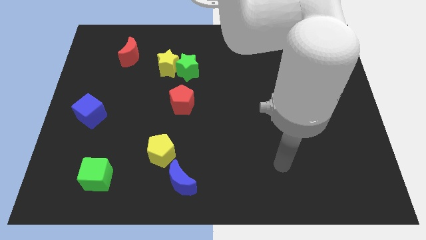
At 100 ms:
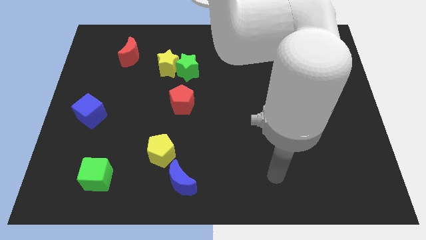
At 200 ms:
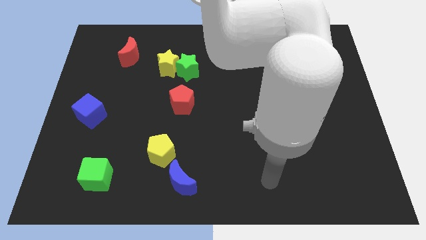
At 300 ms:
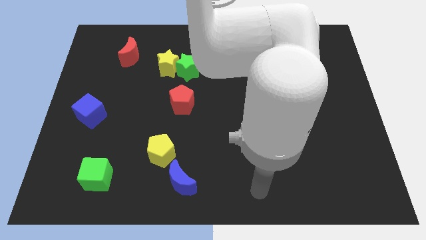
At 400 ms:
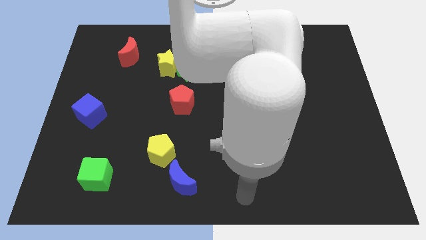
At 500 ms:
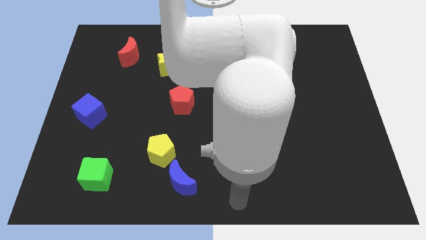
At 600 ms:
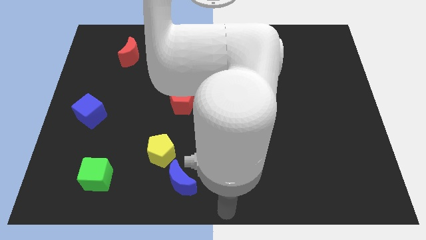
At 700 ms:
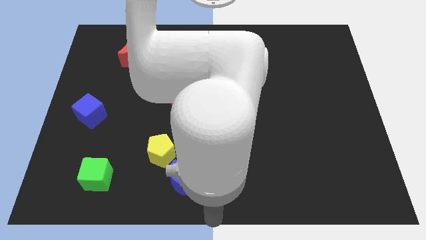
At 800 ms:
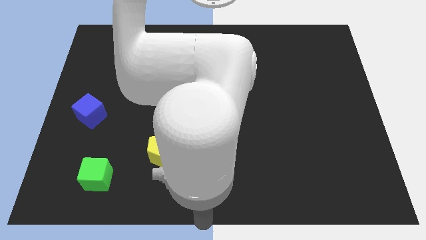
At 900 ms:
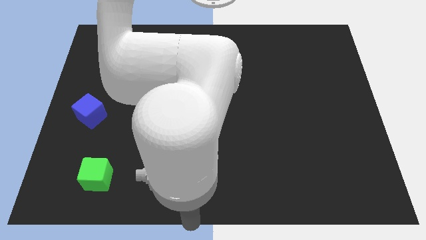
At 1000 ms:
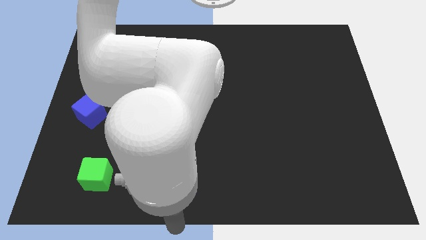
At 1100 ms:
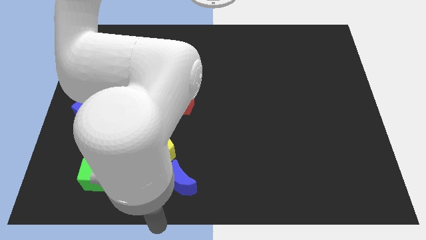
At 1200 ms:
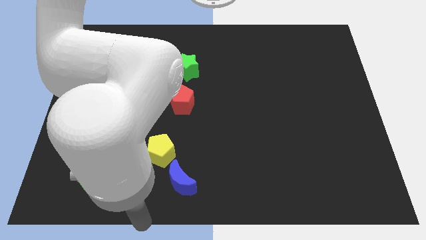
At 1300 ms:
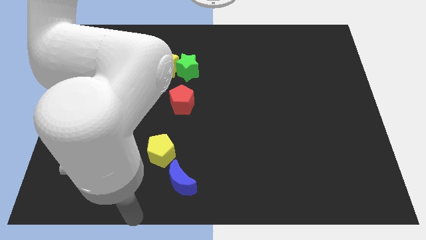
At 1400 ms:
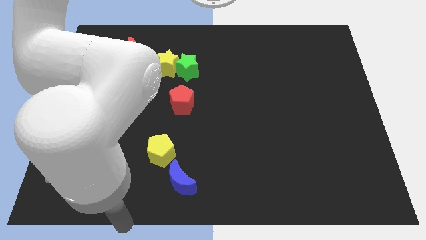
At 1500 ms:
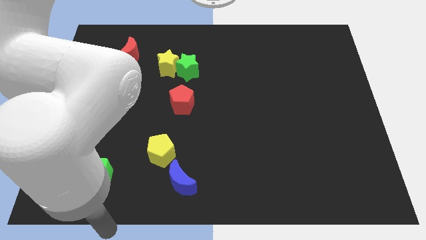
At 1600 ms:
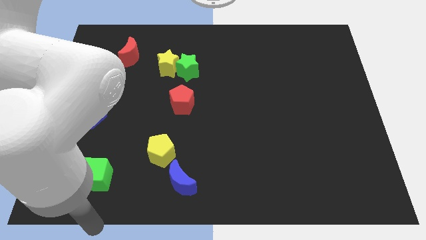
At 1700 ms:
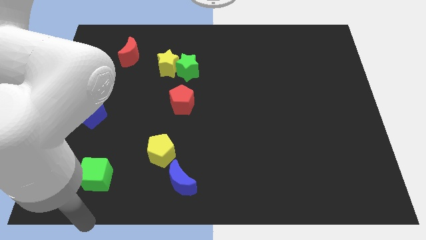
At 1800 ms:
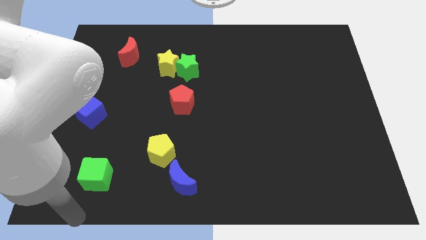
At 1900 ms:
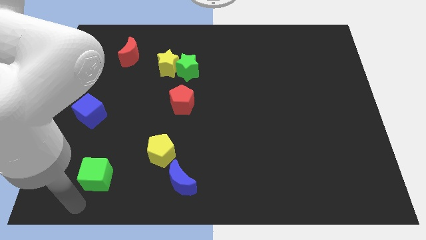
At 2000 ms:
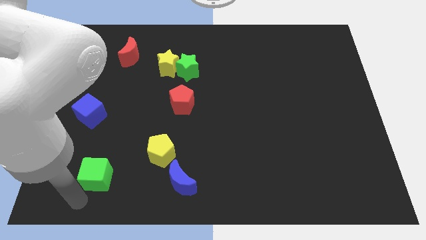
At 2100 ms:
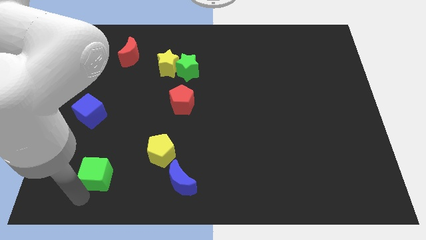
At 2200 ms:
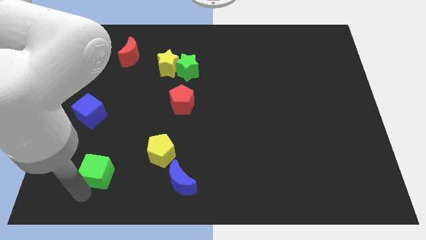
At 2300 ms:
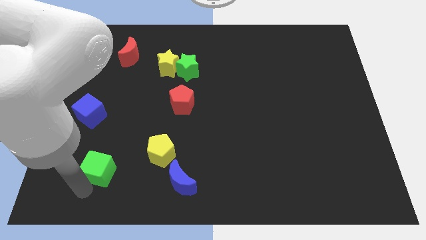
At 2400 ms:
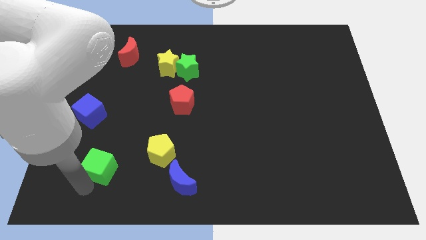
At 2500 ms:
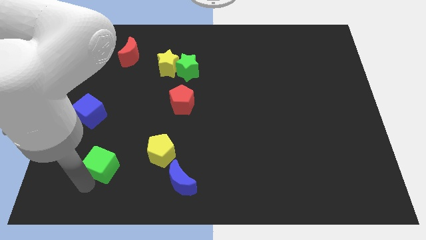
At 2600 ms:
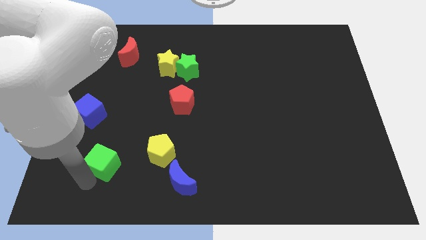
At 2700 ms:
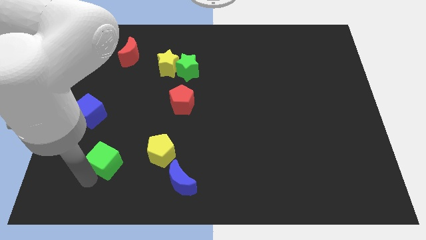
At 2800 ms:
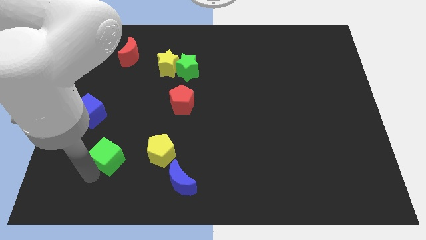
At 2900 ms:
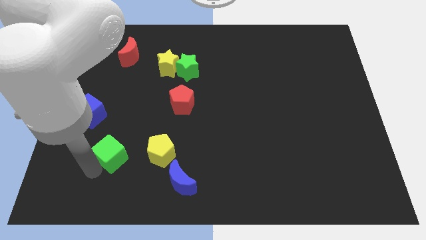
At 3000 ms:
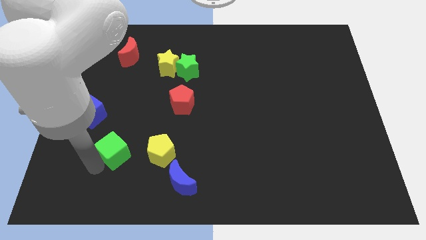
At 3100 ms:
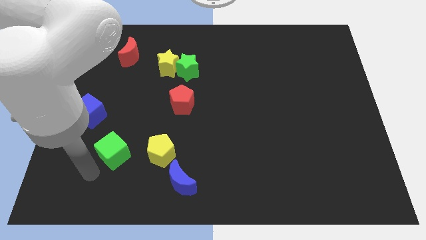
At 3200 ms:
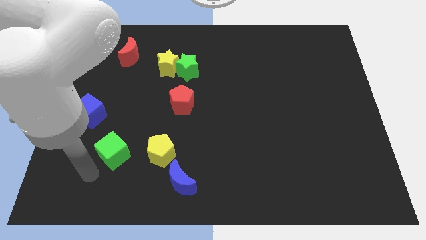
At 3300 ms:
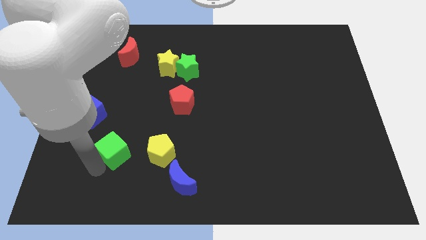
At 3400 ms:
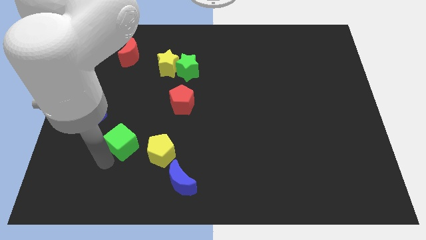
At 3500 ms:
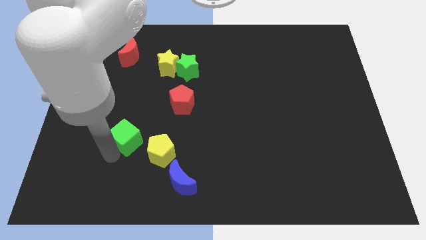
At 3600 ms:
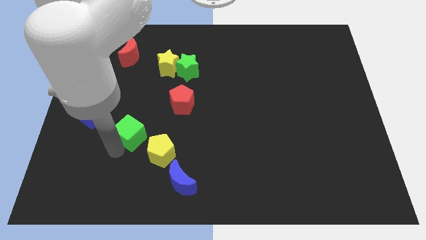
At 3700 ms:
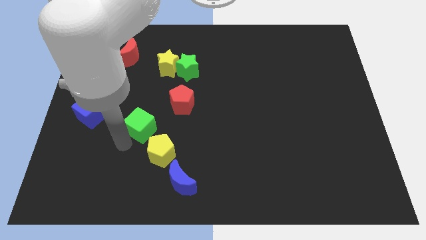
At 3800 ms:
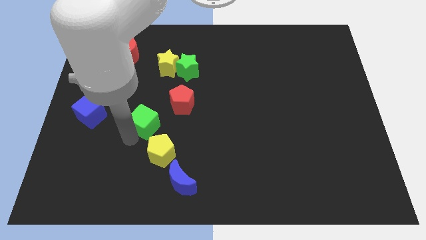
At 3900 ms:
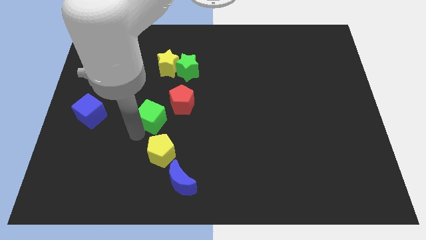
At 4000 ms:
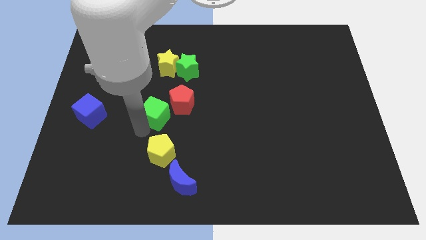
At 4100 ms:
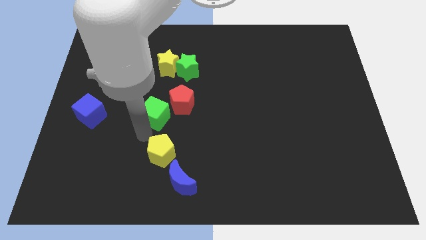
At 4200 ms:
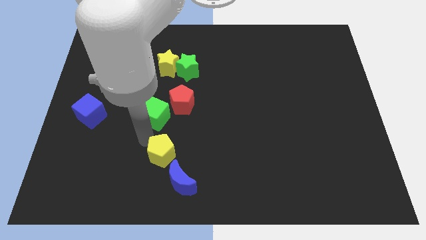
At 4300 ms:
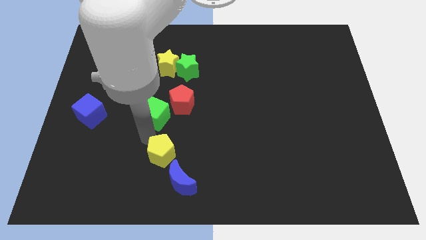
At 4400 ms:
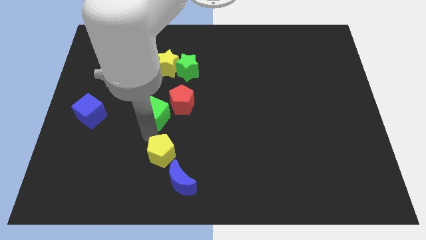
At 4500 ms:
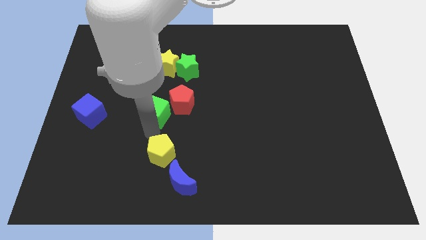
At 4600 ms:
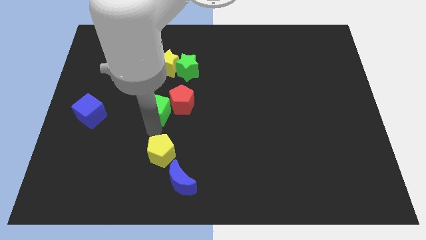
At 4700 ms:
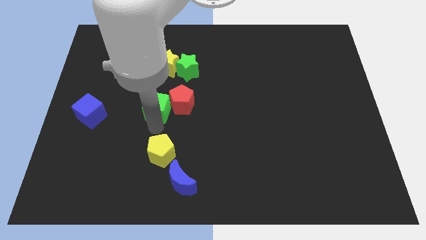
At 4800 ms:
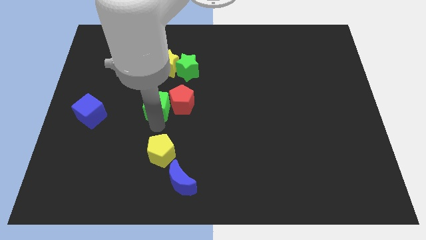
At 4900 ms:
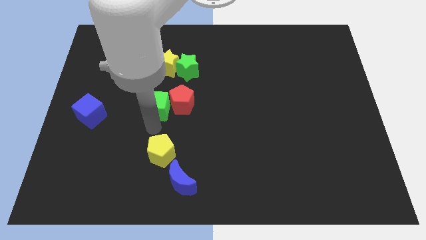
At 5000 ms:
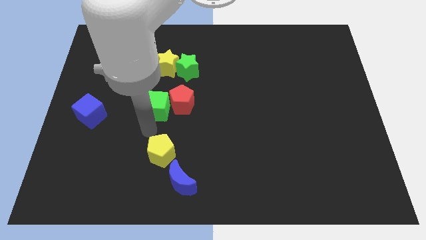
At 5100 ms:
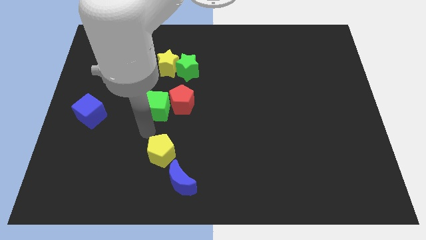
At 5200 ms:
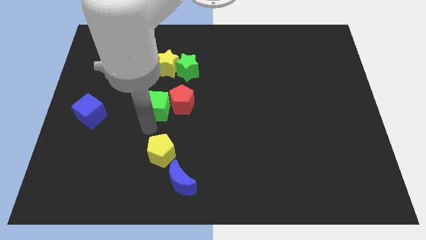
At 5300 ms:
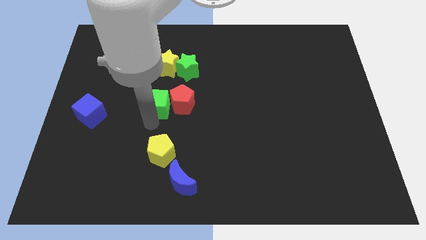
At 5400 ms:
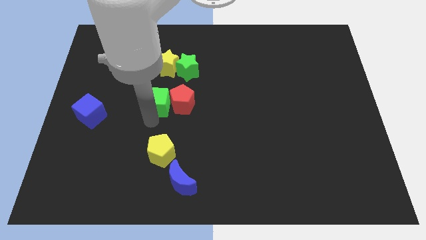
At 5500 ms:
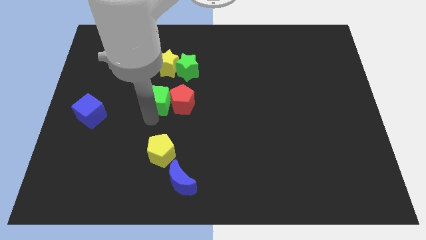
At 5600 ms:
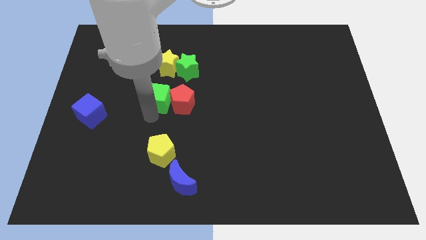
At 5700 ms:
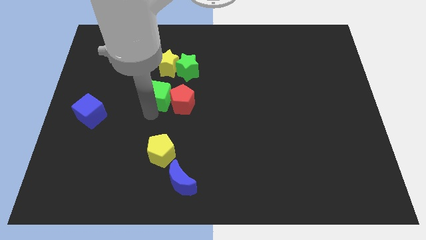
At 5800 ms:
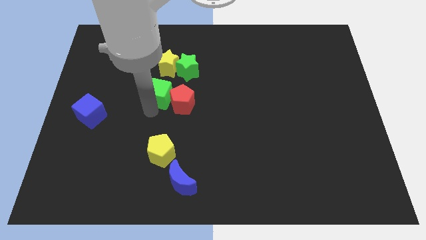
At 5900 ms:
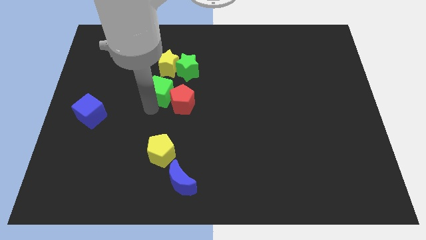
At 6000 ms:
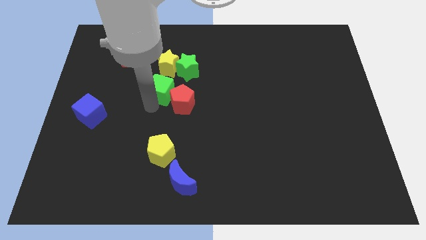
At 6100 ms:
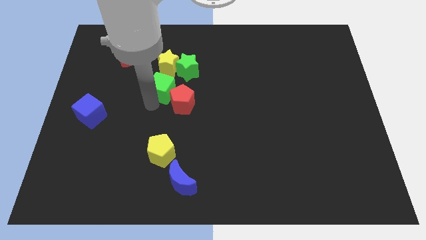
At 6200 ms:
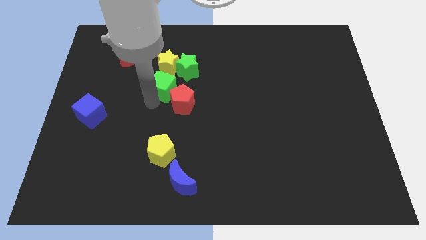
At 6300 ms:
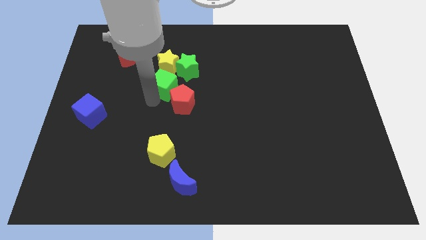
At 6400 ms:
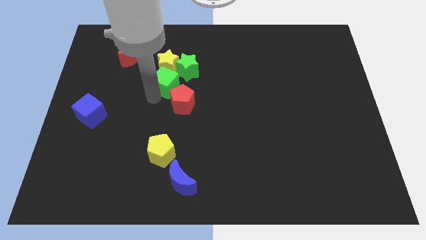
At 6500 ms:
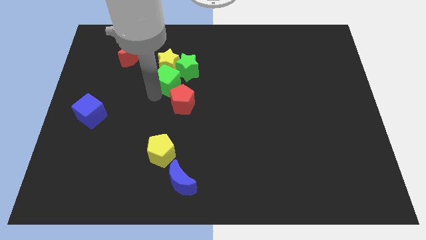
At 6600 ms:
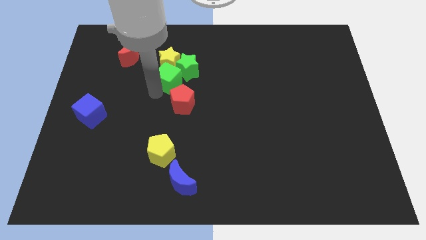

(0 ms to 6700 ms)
move the green cube to the green star

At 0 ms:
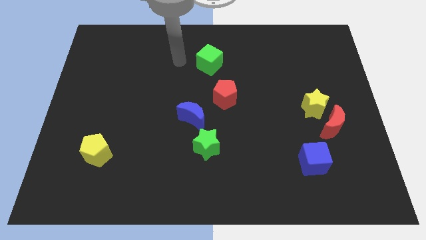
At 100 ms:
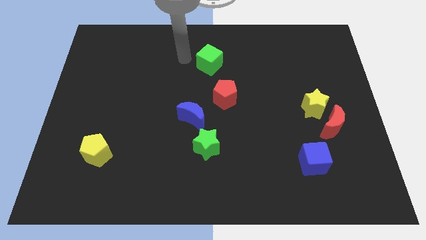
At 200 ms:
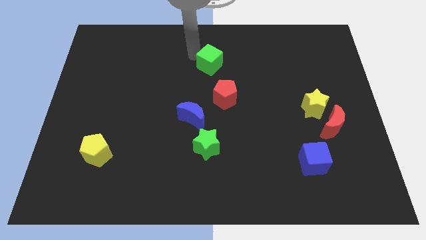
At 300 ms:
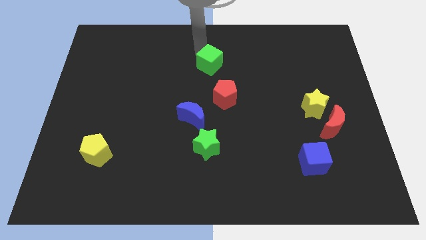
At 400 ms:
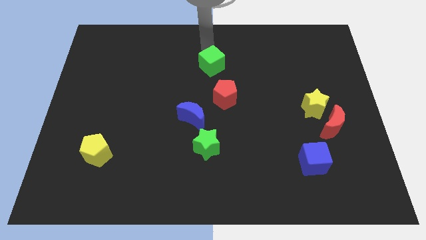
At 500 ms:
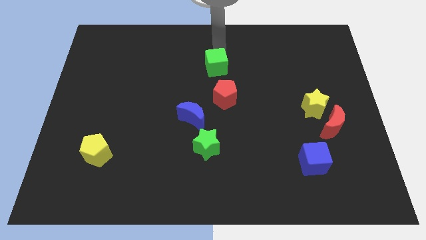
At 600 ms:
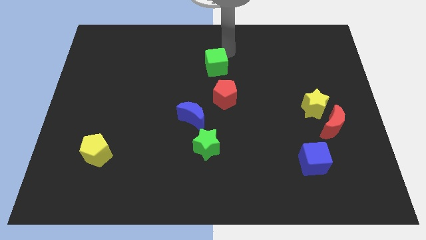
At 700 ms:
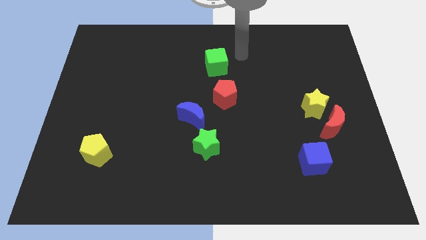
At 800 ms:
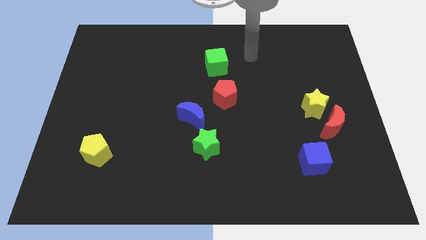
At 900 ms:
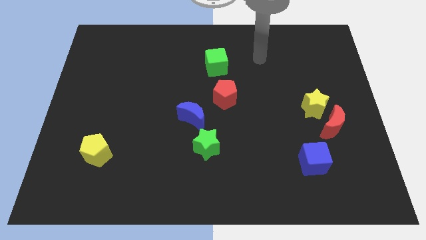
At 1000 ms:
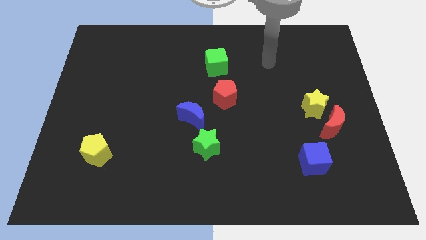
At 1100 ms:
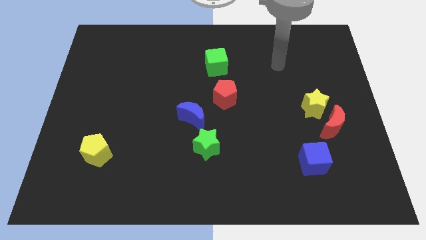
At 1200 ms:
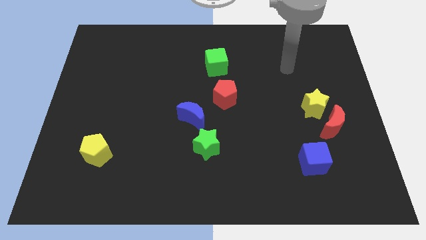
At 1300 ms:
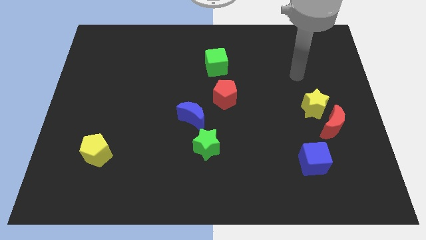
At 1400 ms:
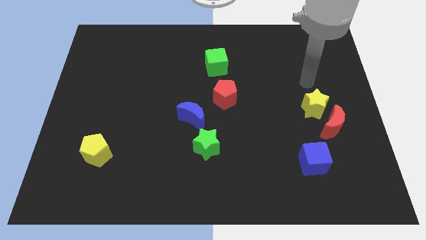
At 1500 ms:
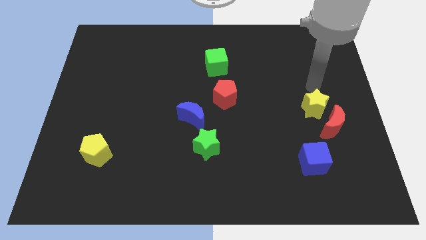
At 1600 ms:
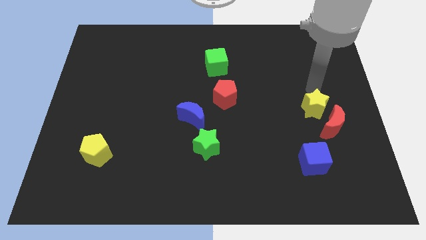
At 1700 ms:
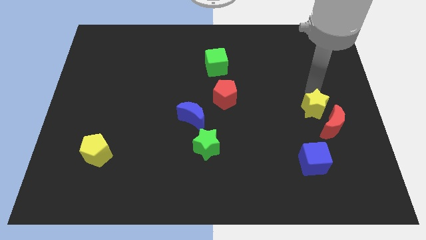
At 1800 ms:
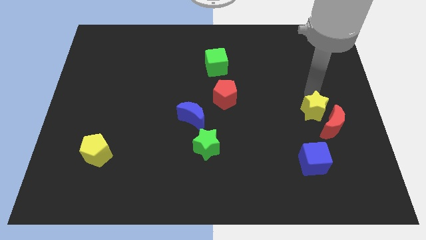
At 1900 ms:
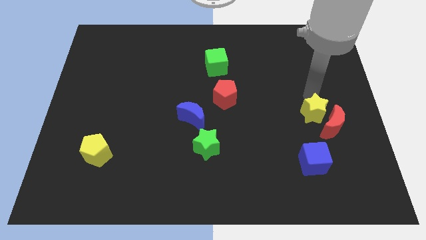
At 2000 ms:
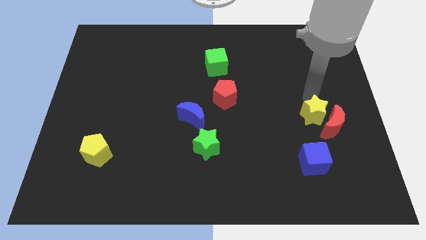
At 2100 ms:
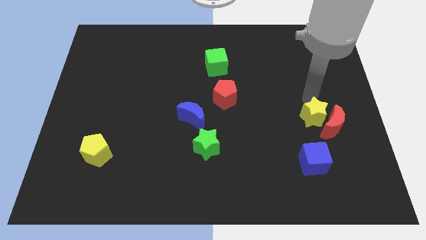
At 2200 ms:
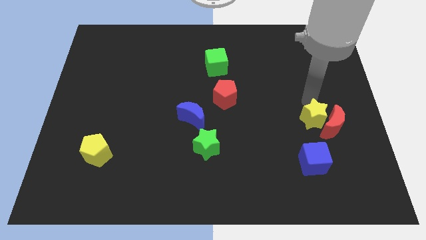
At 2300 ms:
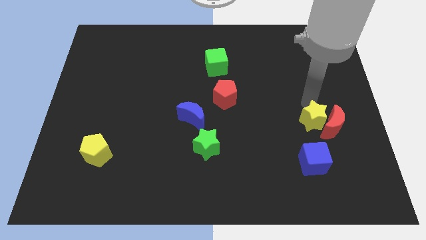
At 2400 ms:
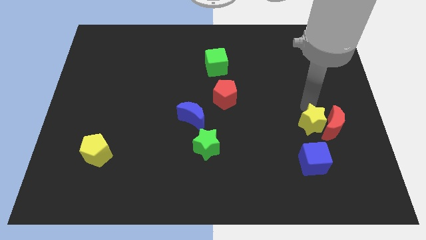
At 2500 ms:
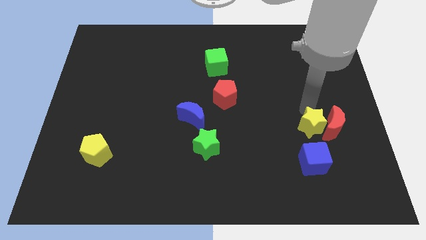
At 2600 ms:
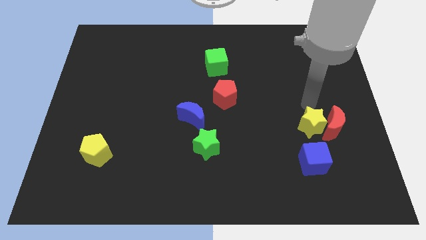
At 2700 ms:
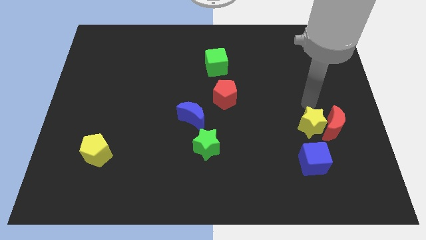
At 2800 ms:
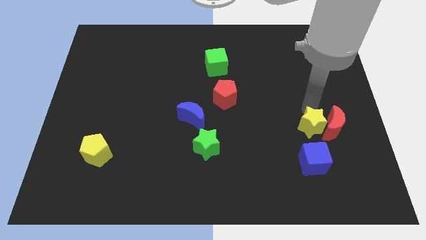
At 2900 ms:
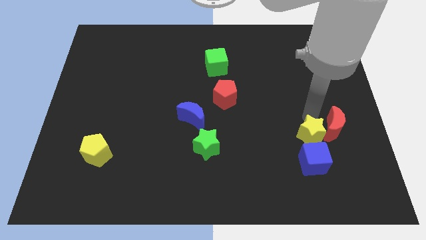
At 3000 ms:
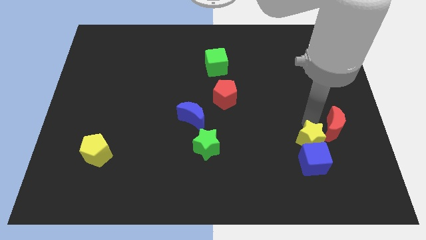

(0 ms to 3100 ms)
slide the yellow star next to the blue cube
